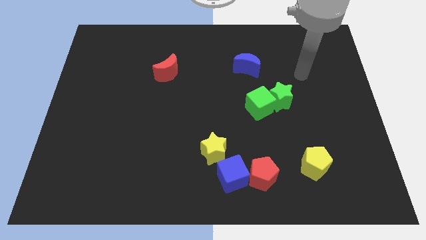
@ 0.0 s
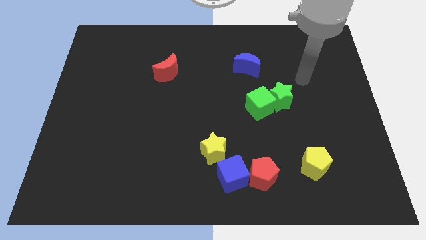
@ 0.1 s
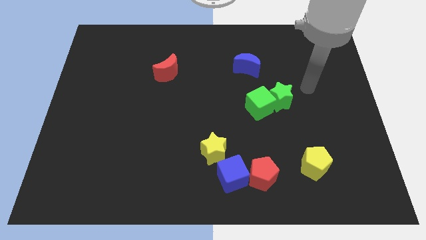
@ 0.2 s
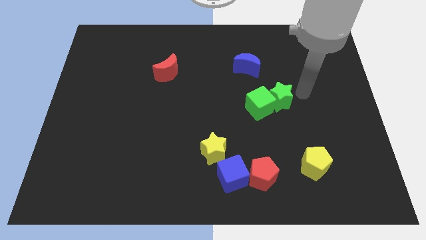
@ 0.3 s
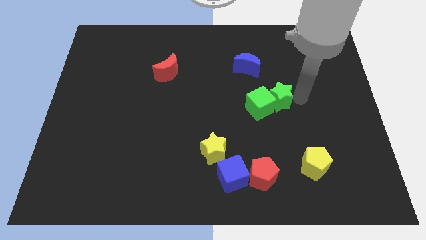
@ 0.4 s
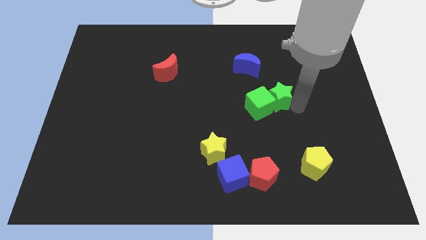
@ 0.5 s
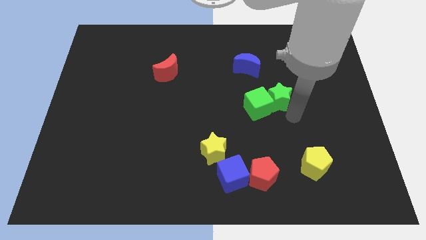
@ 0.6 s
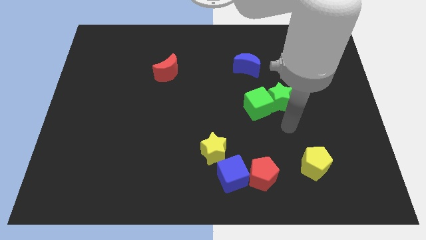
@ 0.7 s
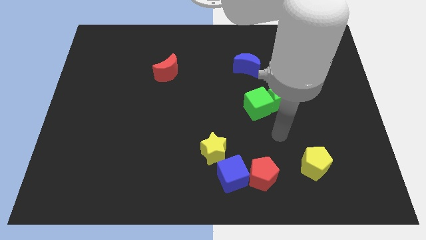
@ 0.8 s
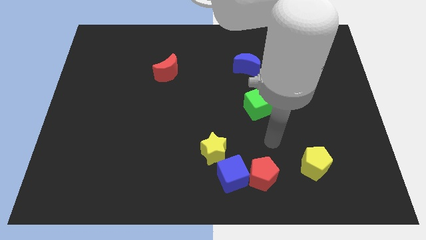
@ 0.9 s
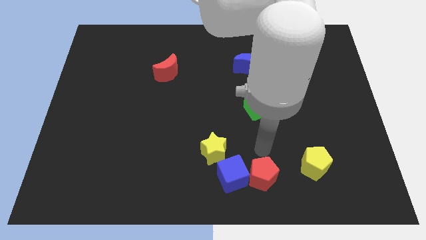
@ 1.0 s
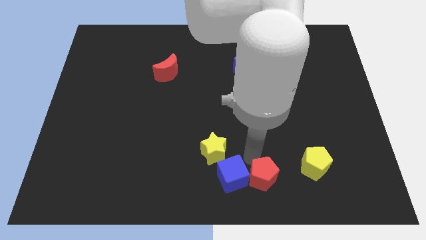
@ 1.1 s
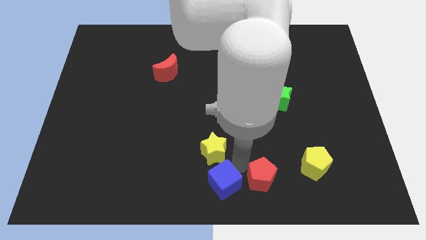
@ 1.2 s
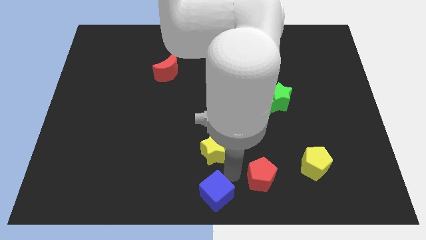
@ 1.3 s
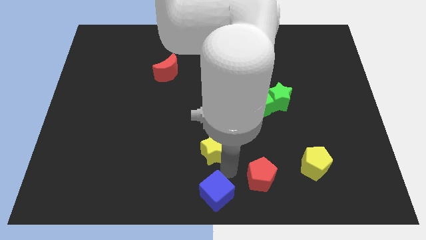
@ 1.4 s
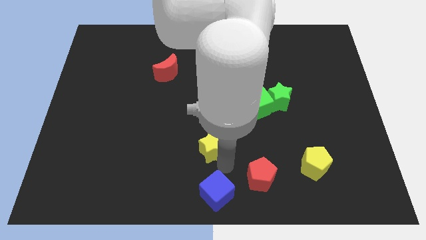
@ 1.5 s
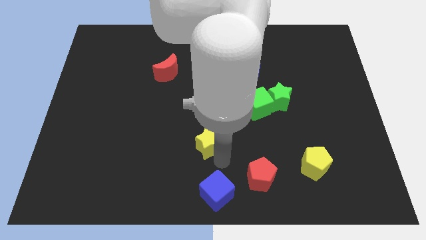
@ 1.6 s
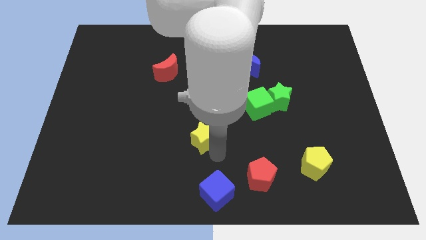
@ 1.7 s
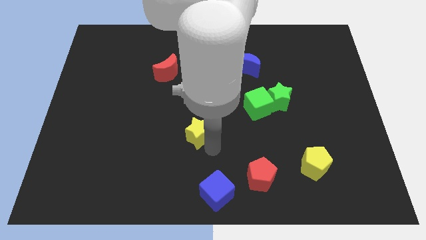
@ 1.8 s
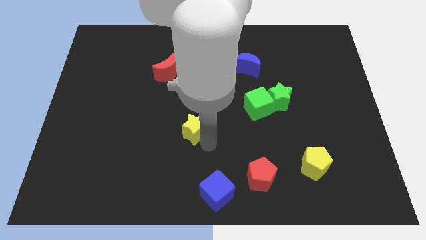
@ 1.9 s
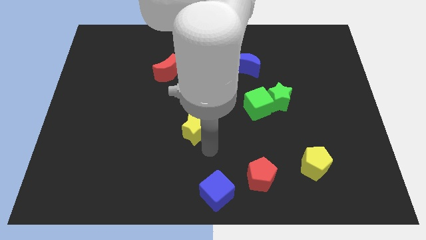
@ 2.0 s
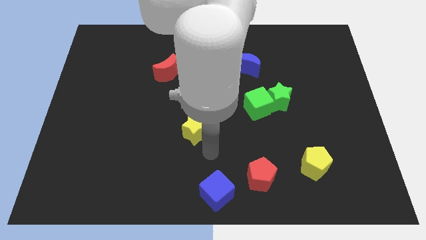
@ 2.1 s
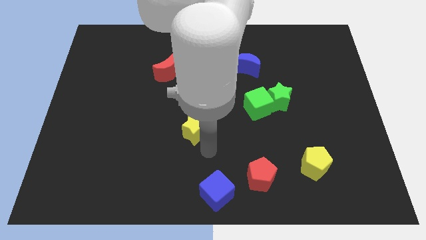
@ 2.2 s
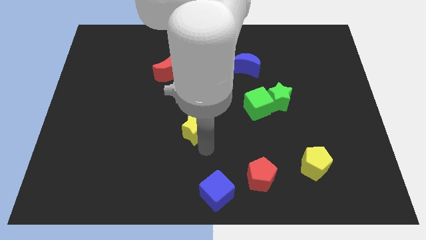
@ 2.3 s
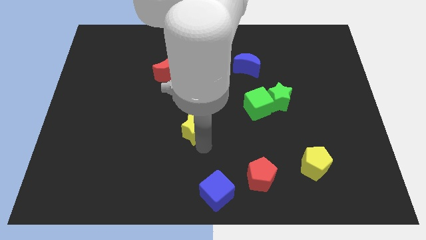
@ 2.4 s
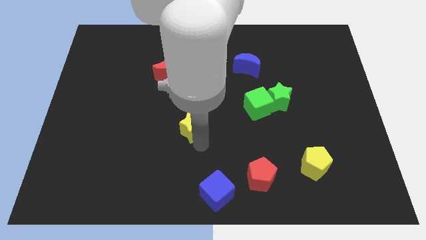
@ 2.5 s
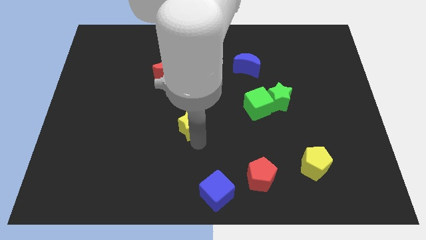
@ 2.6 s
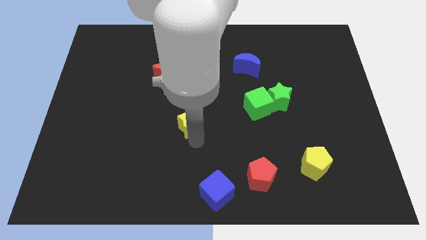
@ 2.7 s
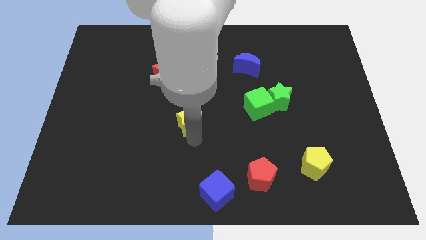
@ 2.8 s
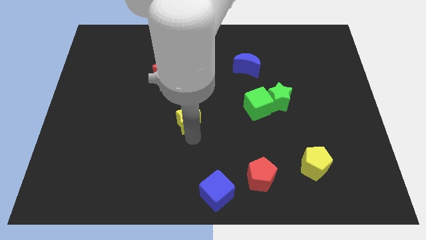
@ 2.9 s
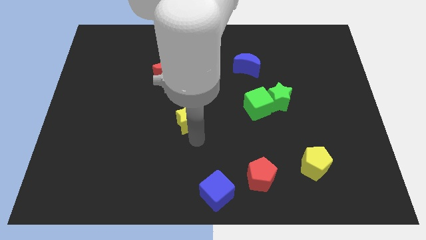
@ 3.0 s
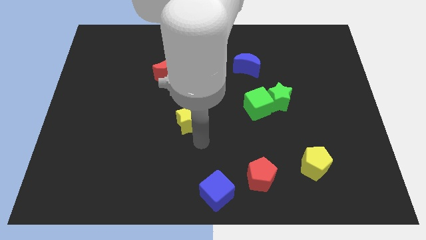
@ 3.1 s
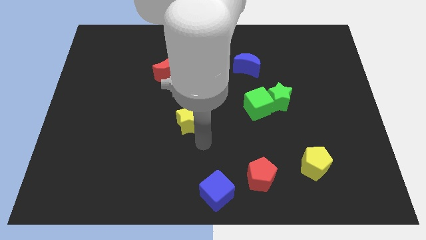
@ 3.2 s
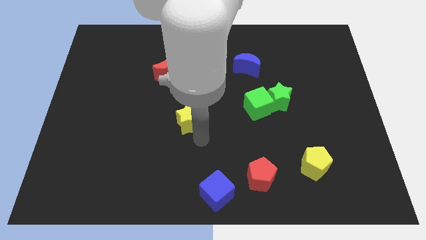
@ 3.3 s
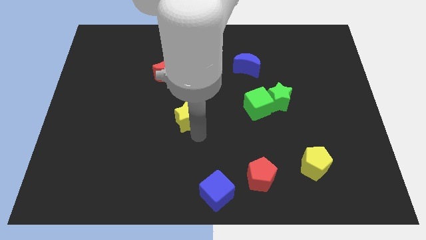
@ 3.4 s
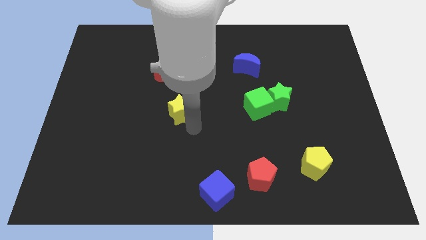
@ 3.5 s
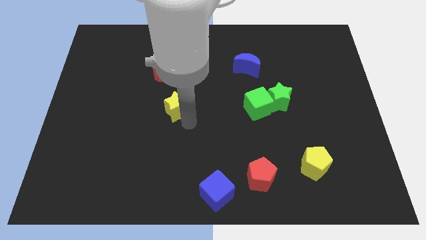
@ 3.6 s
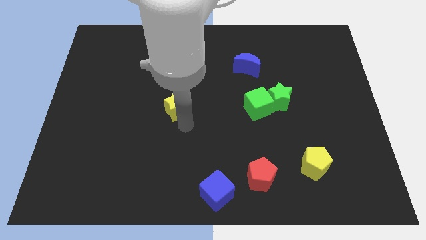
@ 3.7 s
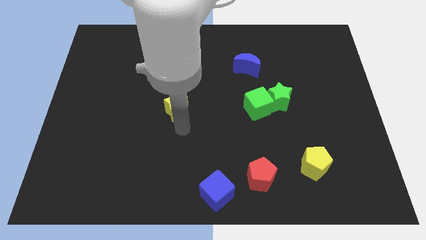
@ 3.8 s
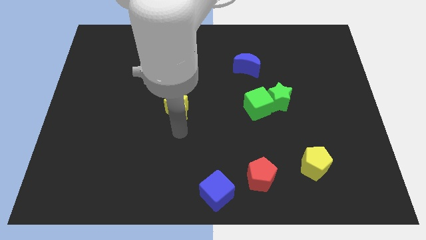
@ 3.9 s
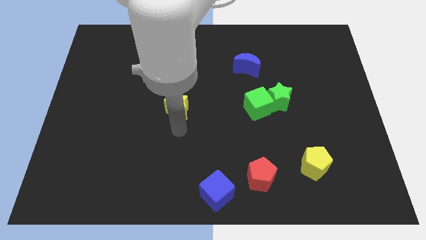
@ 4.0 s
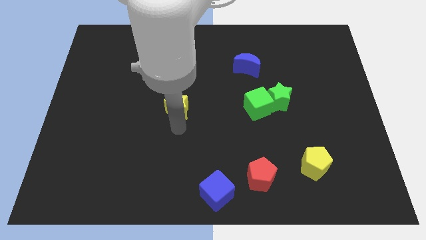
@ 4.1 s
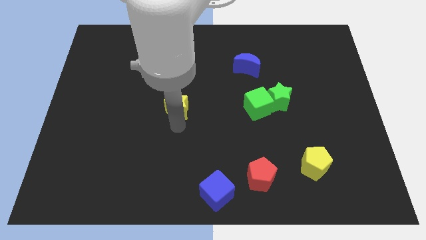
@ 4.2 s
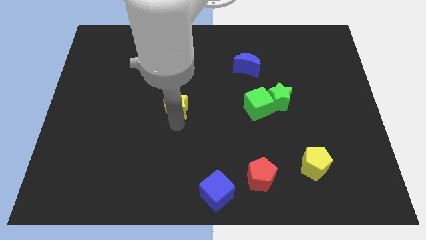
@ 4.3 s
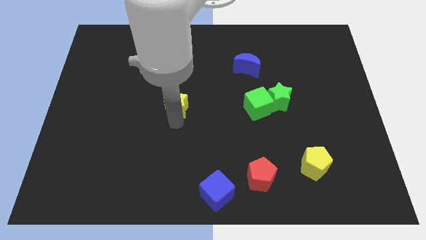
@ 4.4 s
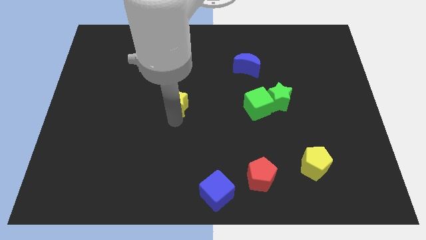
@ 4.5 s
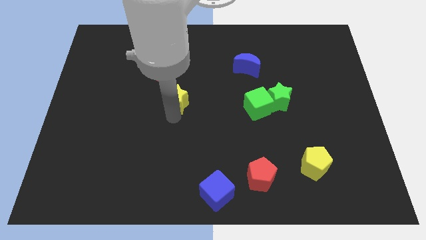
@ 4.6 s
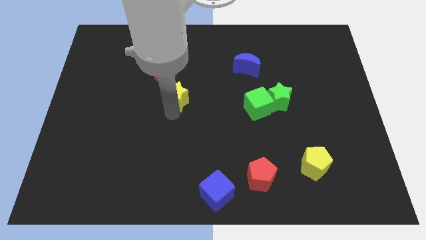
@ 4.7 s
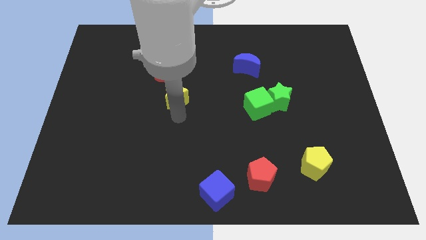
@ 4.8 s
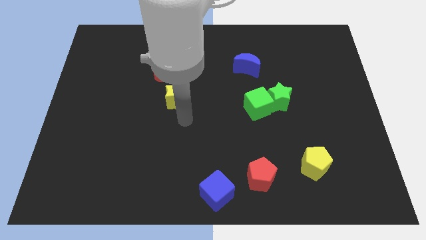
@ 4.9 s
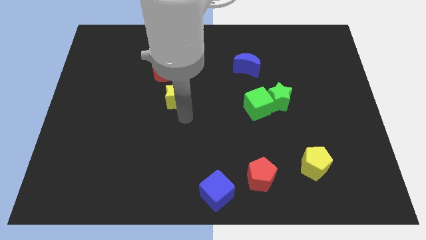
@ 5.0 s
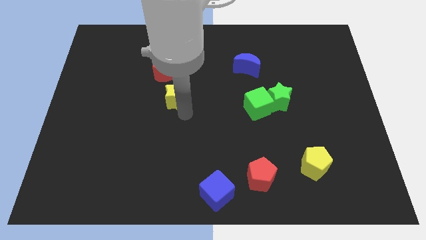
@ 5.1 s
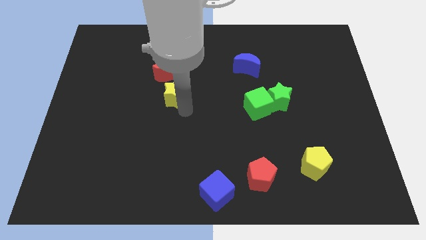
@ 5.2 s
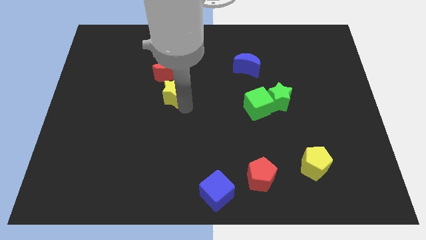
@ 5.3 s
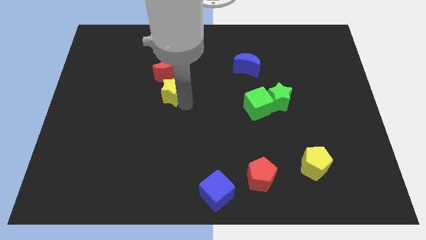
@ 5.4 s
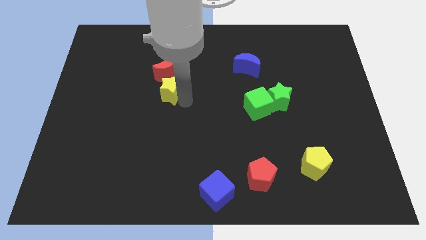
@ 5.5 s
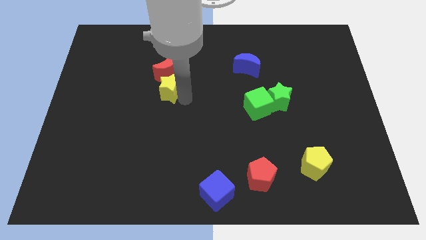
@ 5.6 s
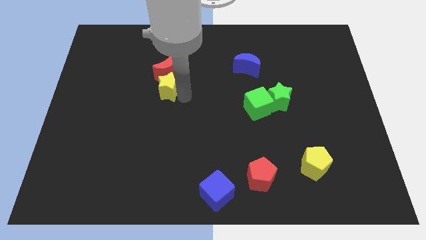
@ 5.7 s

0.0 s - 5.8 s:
slide the yellow star close to the red moon
